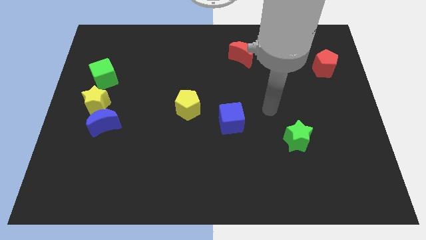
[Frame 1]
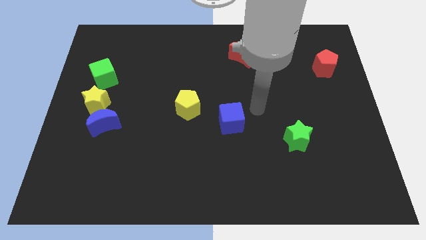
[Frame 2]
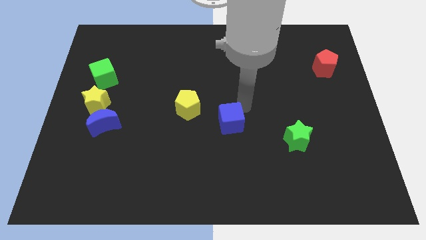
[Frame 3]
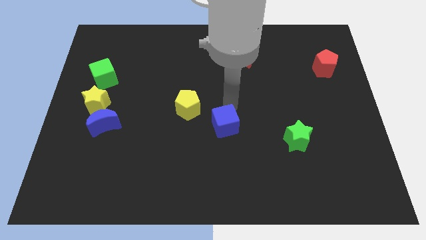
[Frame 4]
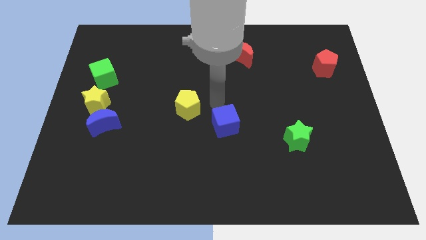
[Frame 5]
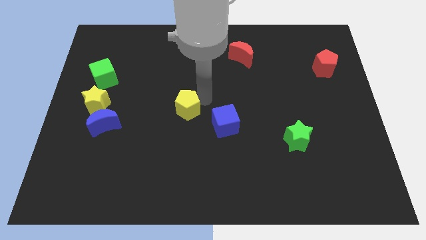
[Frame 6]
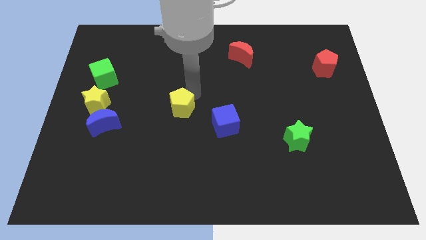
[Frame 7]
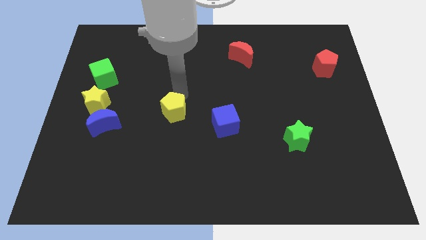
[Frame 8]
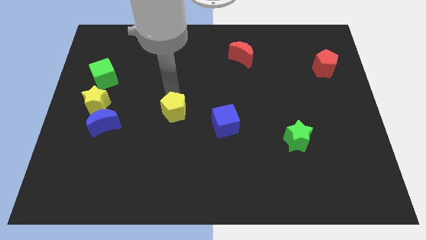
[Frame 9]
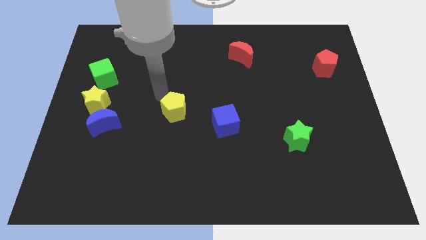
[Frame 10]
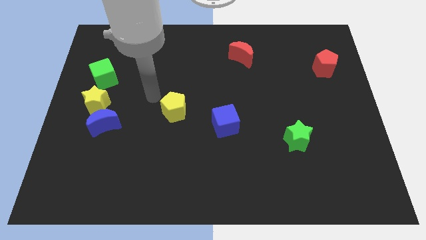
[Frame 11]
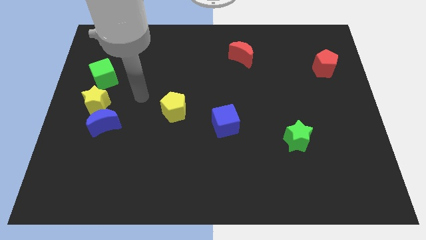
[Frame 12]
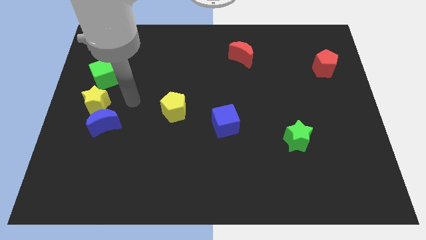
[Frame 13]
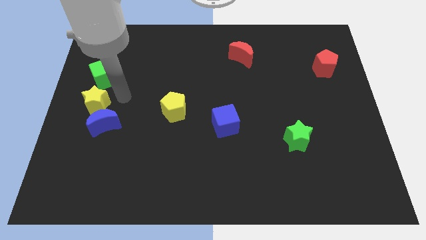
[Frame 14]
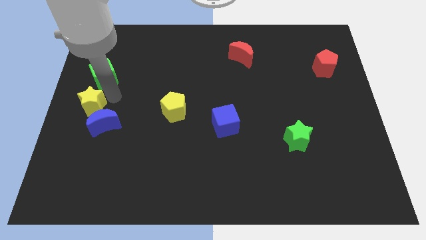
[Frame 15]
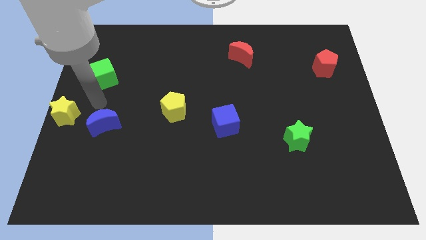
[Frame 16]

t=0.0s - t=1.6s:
separate the blue moon from the yellow star

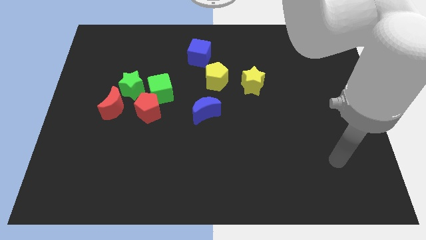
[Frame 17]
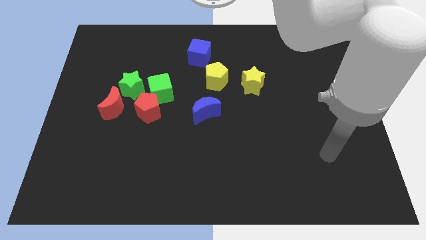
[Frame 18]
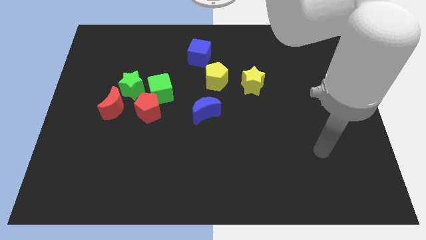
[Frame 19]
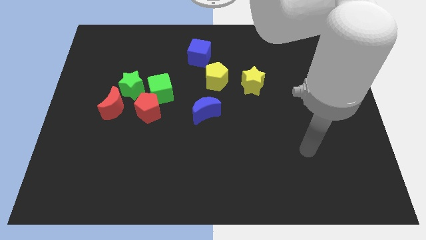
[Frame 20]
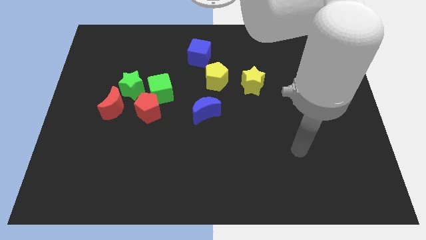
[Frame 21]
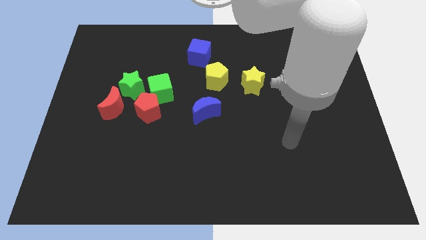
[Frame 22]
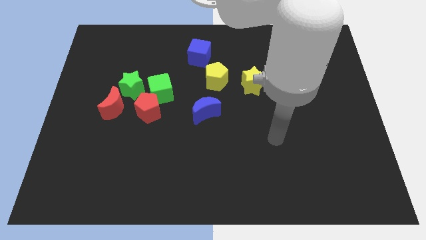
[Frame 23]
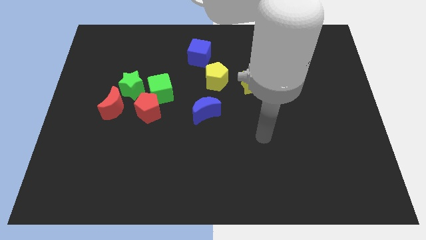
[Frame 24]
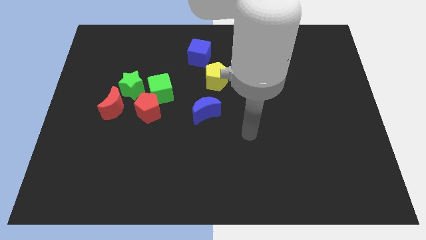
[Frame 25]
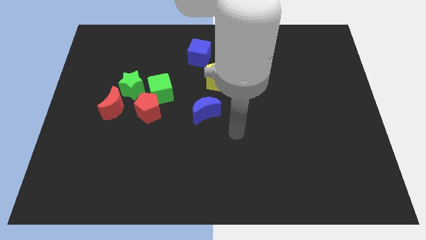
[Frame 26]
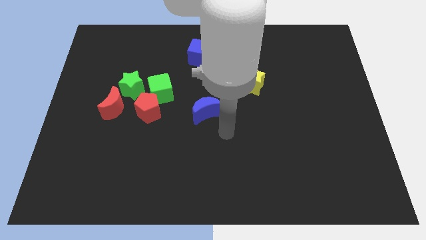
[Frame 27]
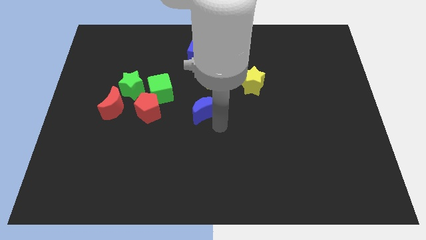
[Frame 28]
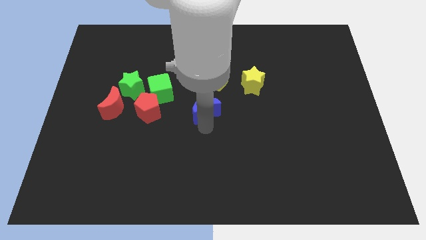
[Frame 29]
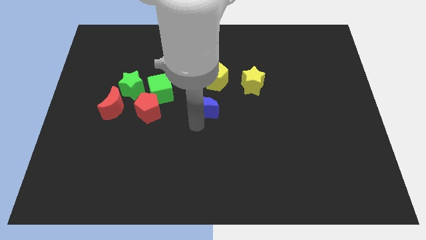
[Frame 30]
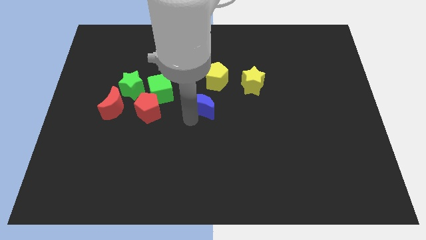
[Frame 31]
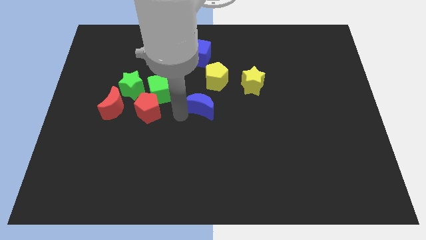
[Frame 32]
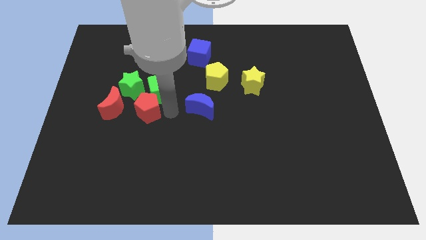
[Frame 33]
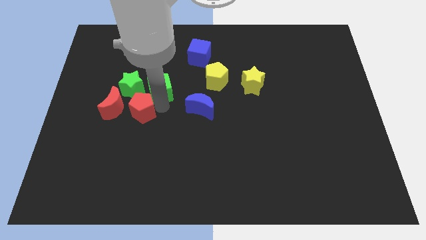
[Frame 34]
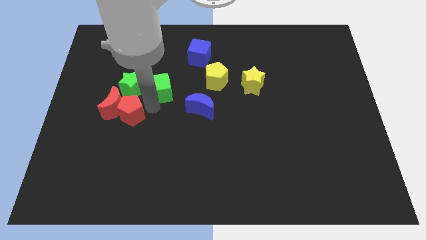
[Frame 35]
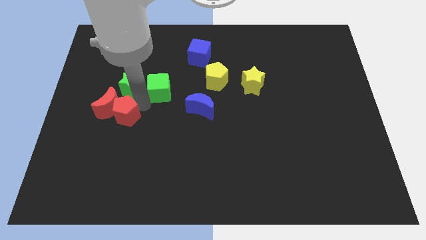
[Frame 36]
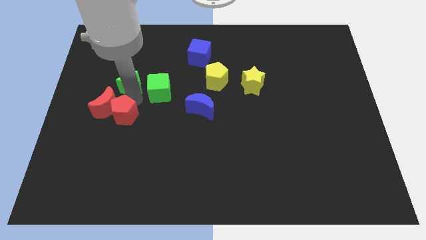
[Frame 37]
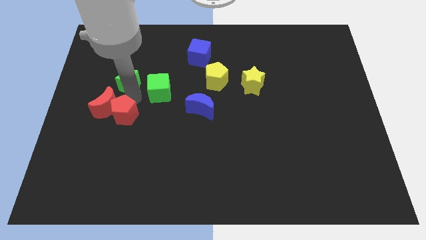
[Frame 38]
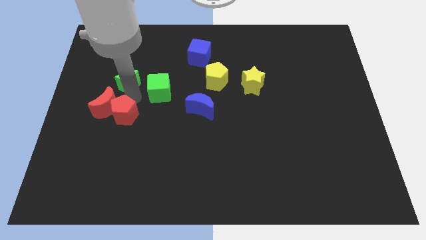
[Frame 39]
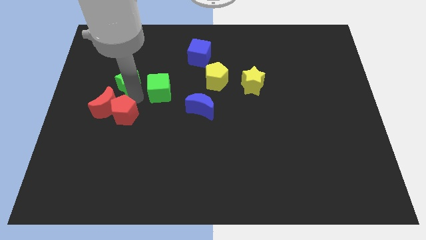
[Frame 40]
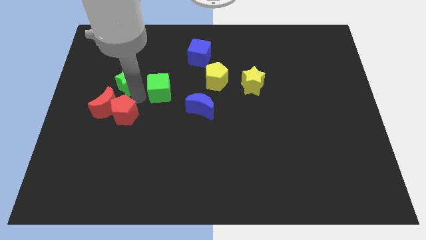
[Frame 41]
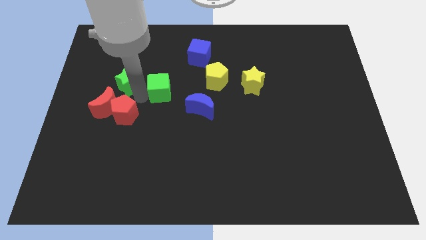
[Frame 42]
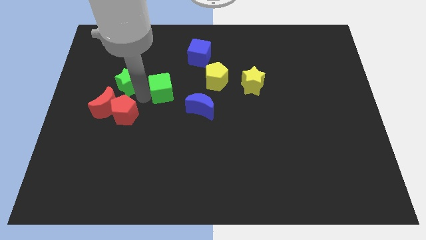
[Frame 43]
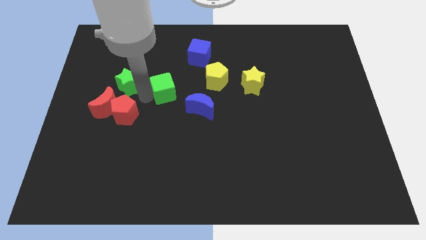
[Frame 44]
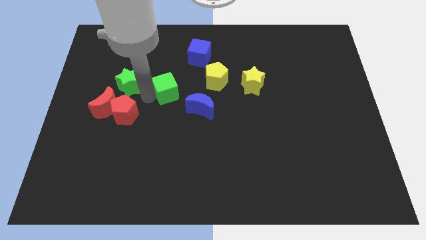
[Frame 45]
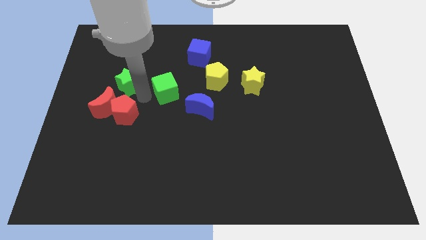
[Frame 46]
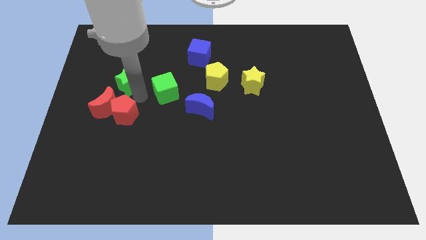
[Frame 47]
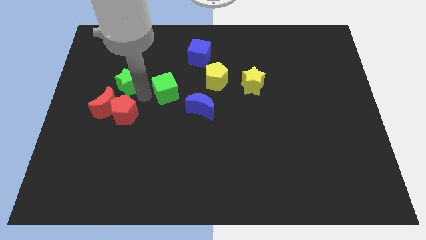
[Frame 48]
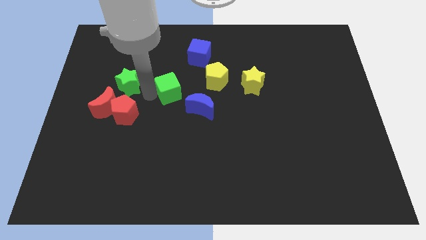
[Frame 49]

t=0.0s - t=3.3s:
separate the green cube from the red pentagon and green star

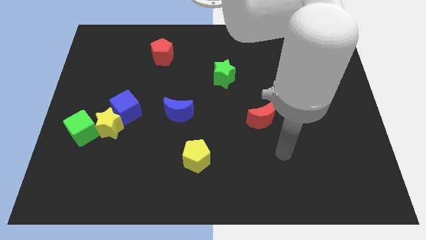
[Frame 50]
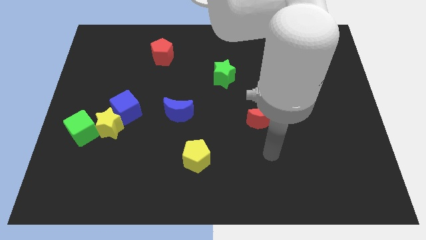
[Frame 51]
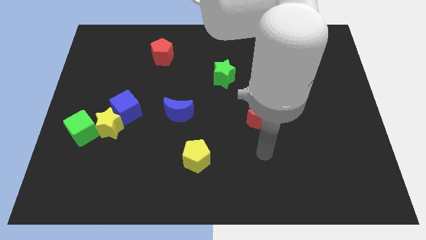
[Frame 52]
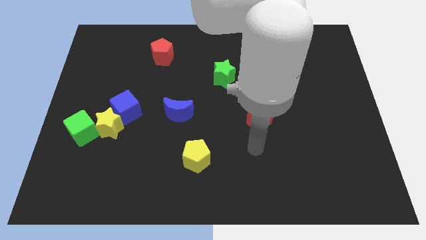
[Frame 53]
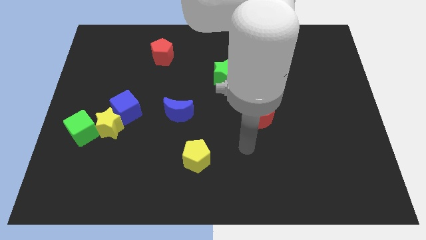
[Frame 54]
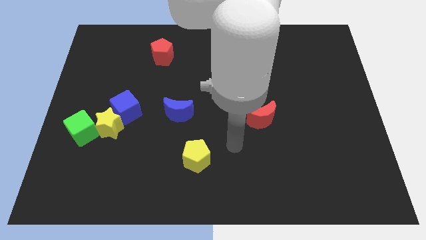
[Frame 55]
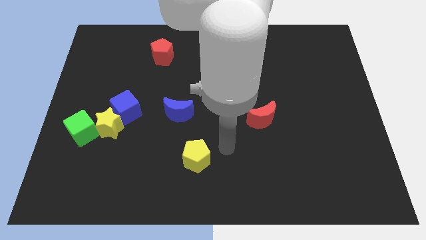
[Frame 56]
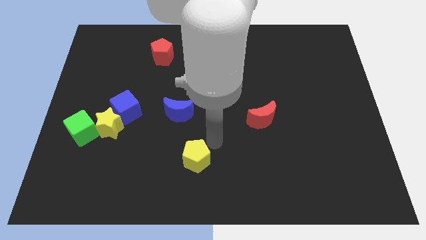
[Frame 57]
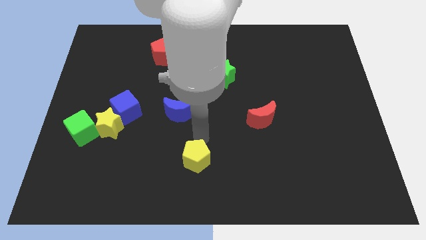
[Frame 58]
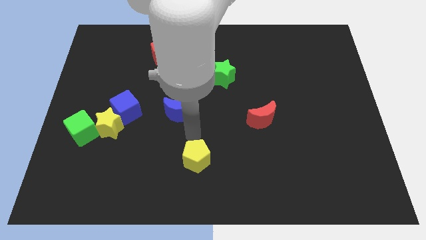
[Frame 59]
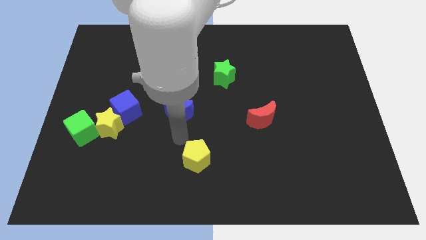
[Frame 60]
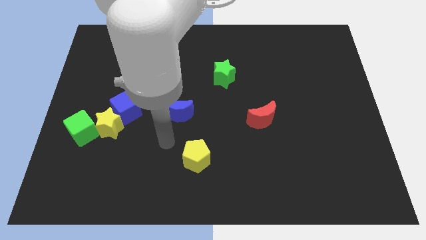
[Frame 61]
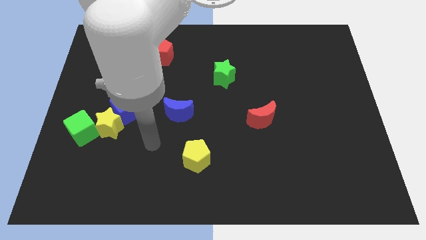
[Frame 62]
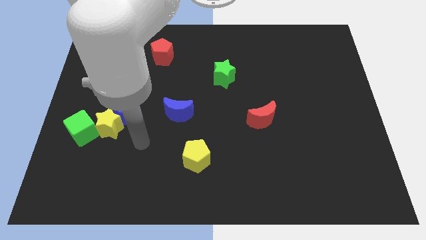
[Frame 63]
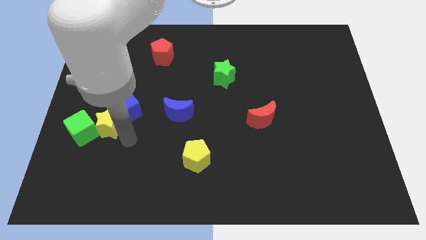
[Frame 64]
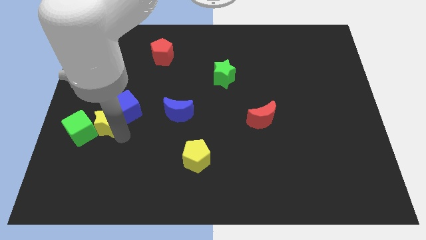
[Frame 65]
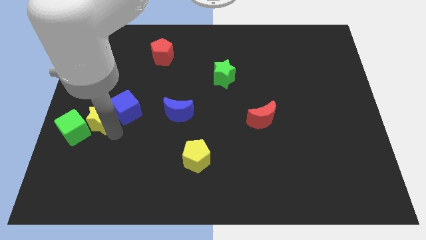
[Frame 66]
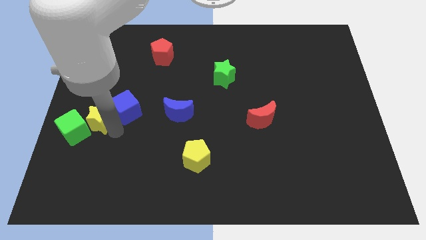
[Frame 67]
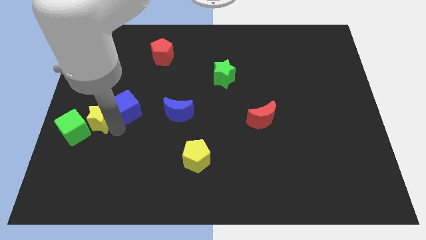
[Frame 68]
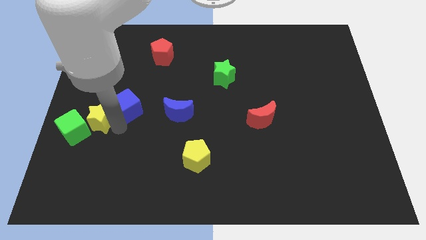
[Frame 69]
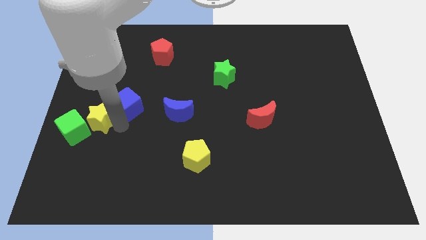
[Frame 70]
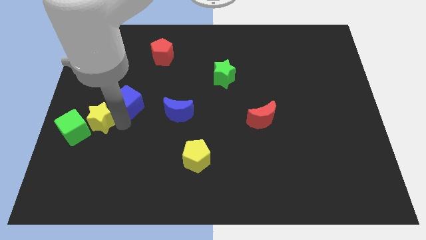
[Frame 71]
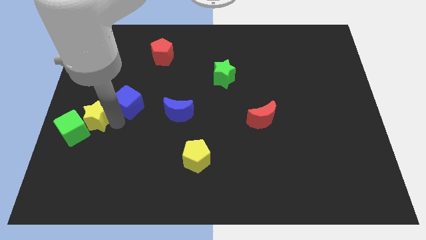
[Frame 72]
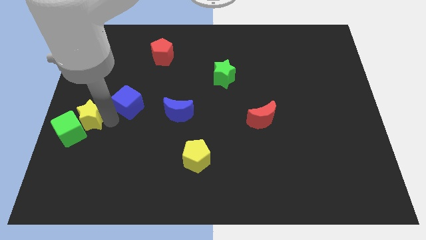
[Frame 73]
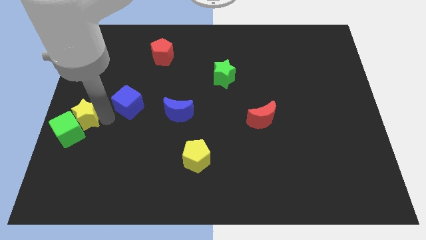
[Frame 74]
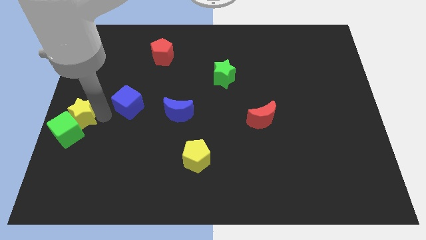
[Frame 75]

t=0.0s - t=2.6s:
pull the blue cube apart from the yellow star

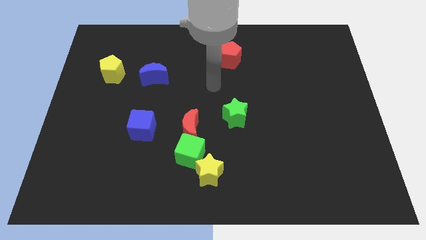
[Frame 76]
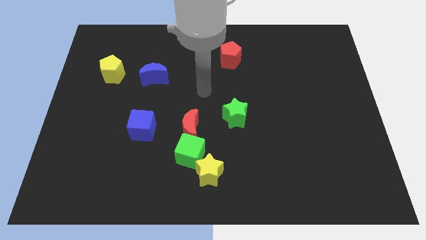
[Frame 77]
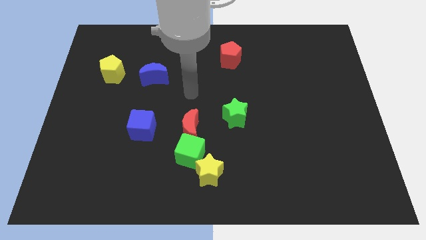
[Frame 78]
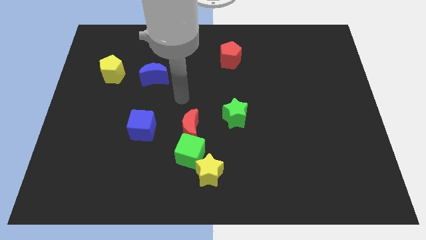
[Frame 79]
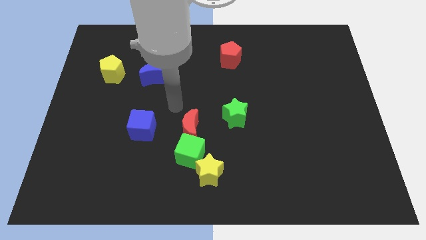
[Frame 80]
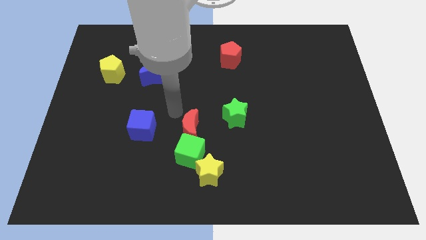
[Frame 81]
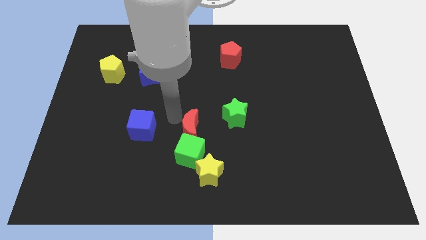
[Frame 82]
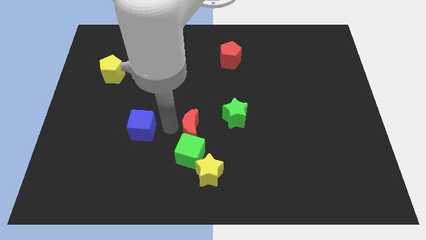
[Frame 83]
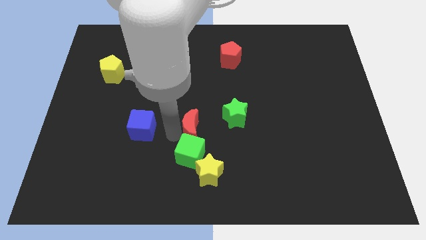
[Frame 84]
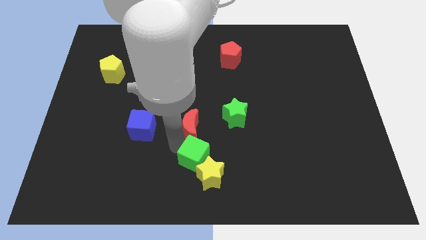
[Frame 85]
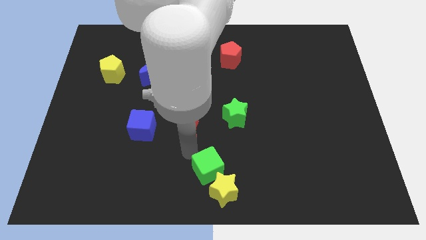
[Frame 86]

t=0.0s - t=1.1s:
pull the red moon apart from the green cube

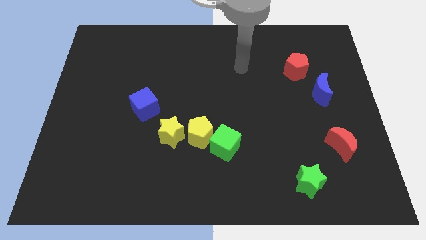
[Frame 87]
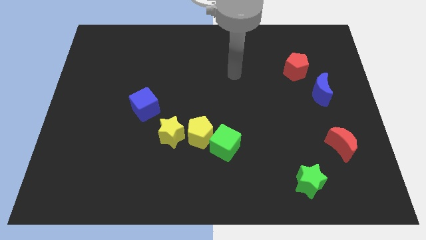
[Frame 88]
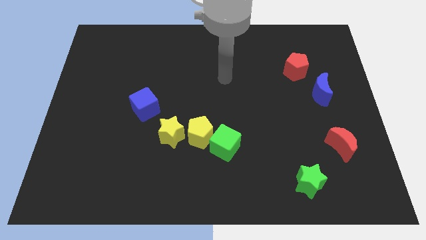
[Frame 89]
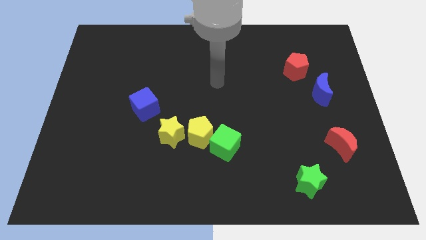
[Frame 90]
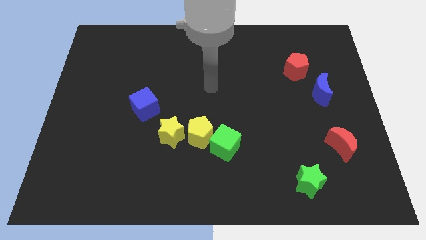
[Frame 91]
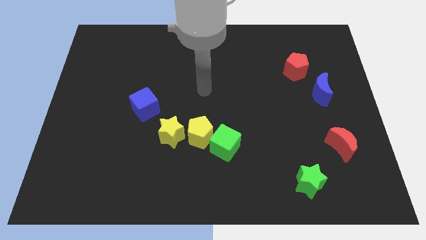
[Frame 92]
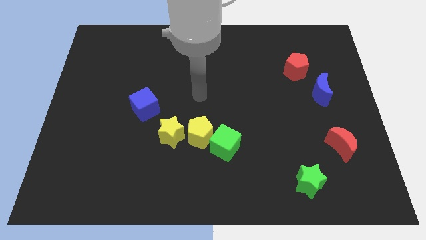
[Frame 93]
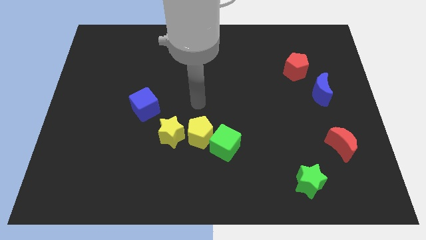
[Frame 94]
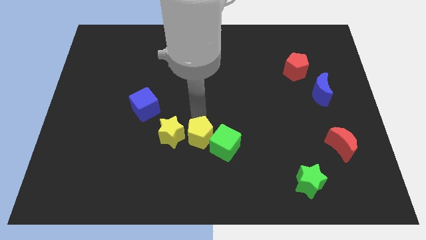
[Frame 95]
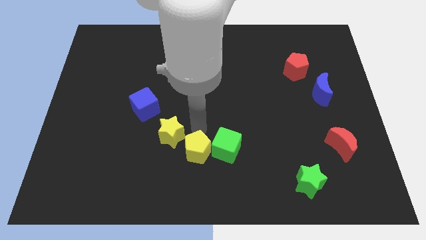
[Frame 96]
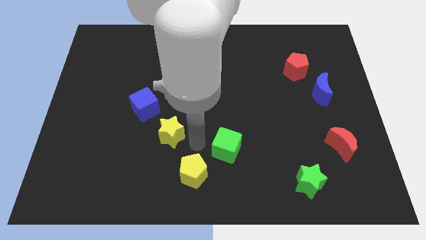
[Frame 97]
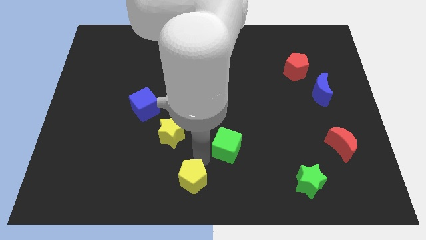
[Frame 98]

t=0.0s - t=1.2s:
move the green cube away from the yellow pentagon
